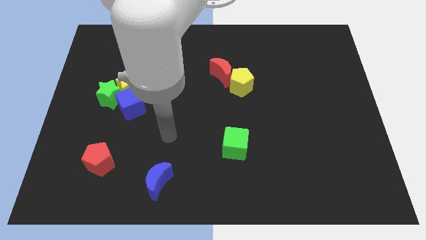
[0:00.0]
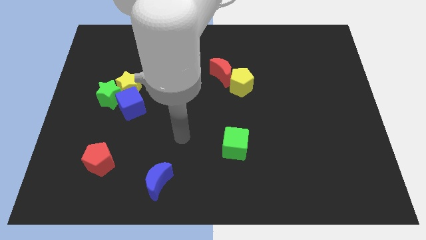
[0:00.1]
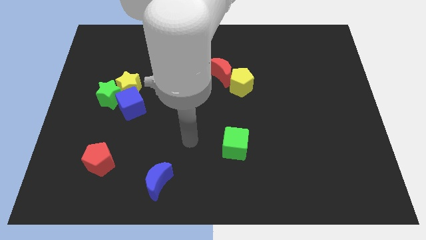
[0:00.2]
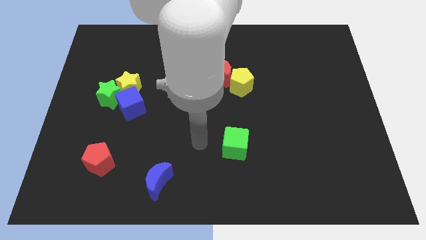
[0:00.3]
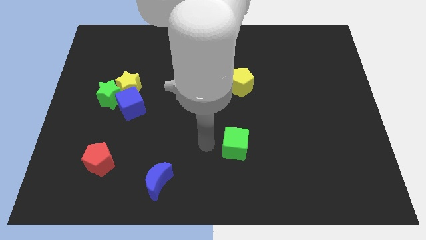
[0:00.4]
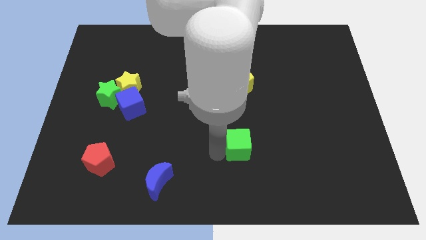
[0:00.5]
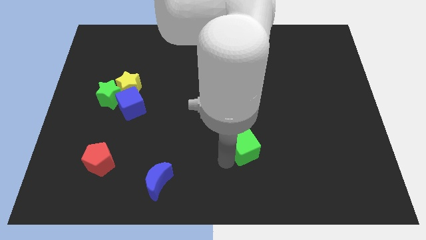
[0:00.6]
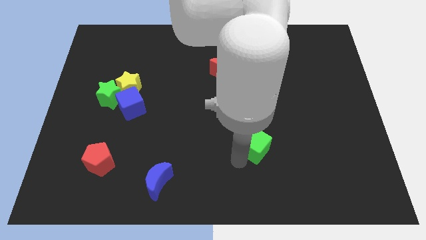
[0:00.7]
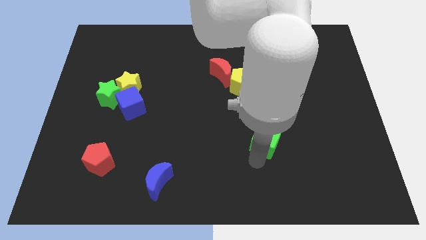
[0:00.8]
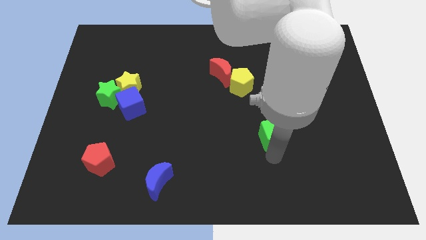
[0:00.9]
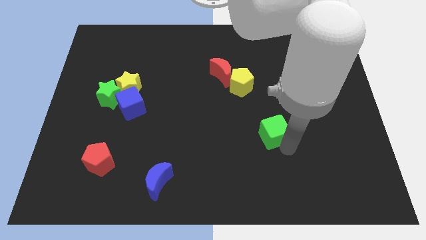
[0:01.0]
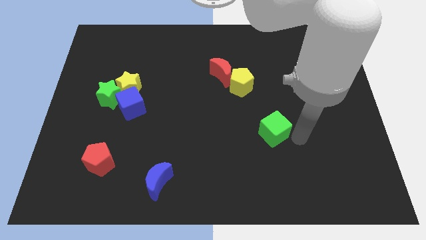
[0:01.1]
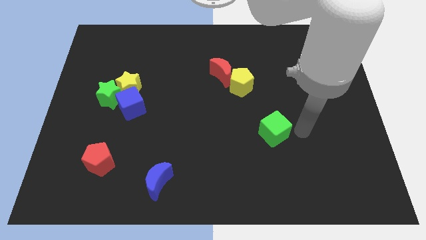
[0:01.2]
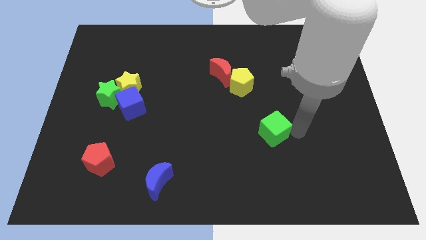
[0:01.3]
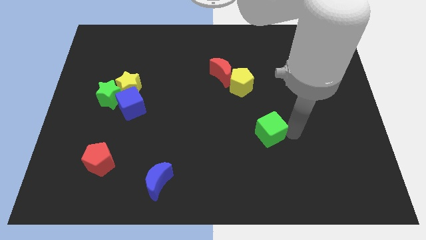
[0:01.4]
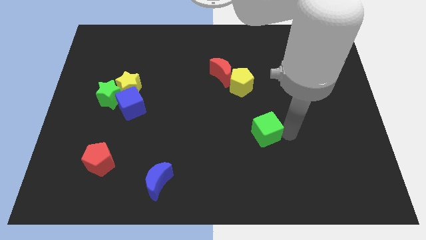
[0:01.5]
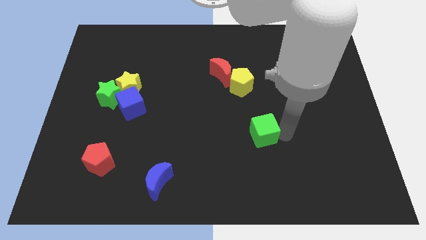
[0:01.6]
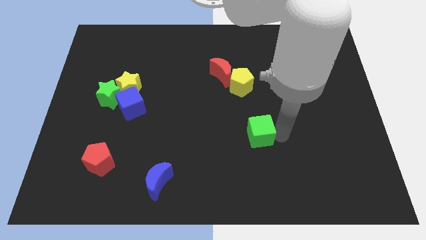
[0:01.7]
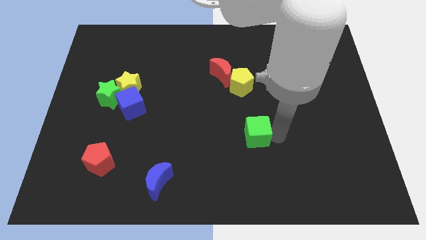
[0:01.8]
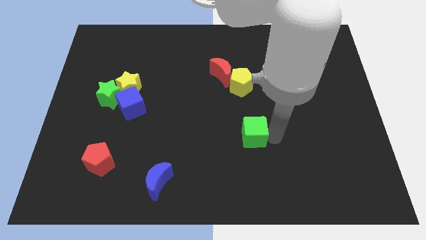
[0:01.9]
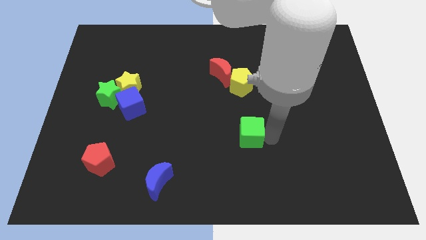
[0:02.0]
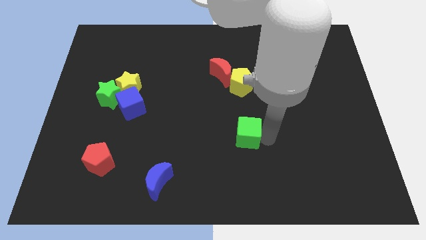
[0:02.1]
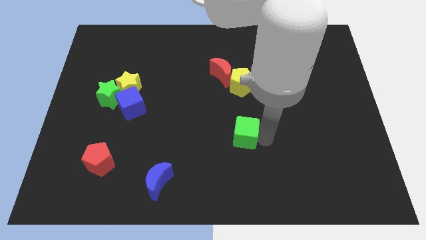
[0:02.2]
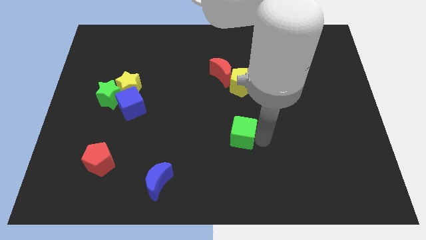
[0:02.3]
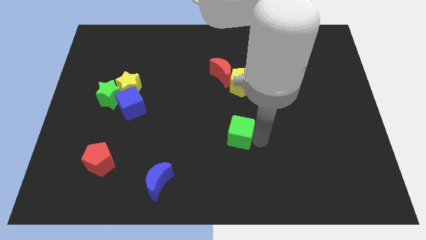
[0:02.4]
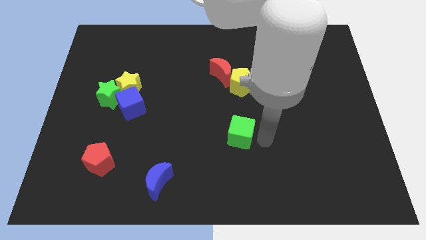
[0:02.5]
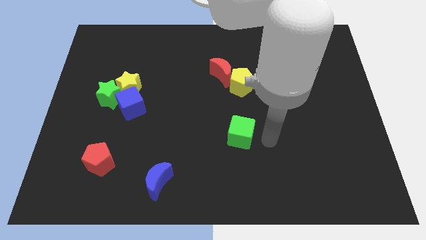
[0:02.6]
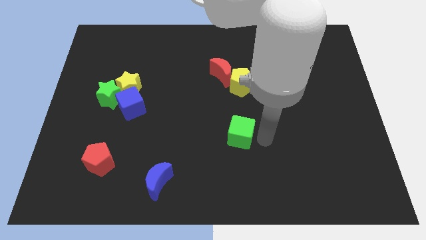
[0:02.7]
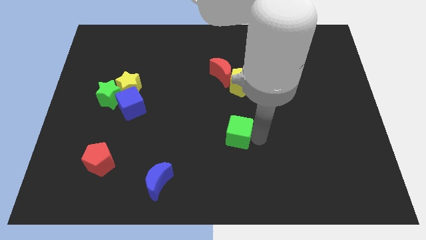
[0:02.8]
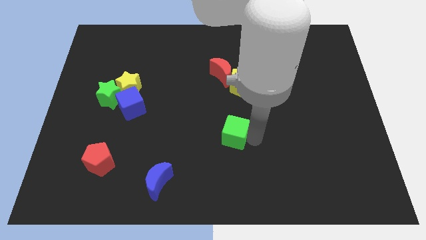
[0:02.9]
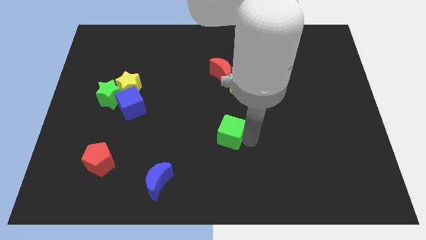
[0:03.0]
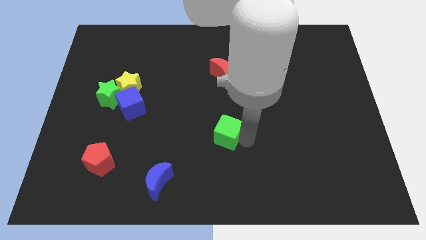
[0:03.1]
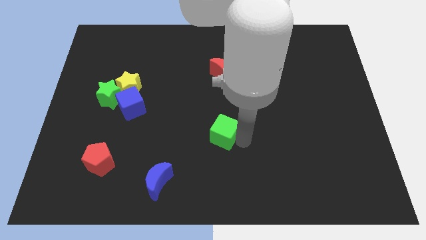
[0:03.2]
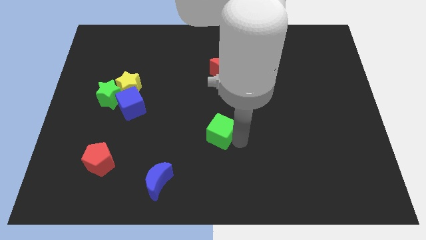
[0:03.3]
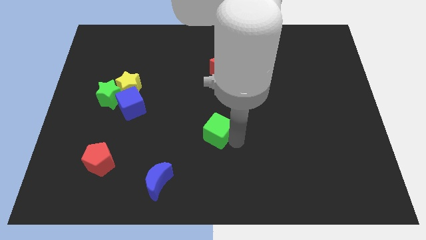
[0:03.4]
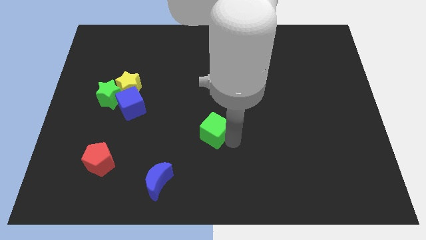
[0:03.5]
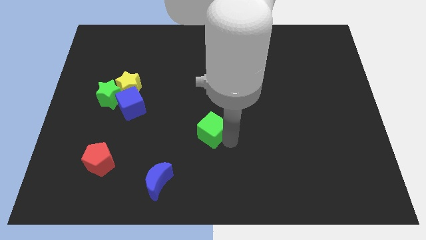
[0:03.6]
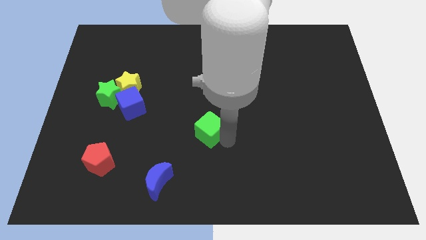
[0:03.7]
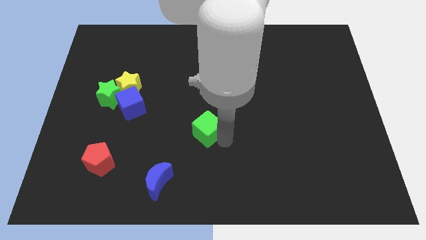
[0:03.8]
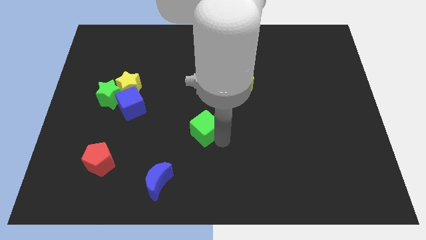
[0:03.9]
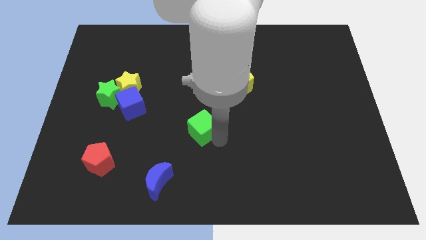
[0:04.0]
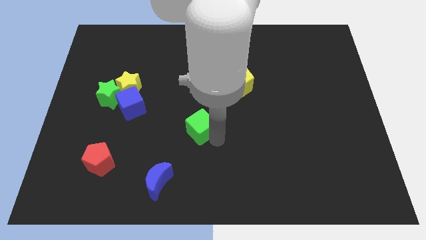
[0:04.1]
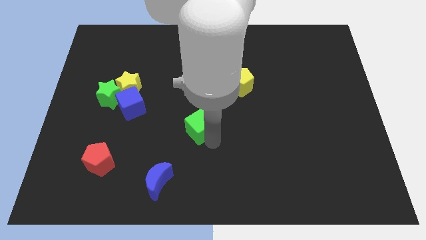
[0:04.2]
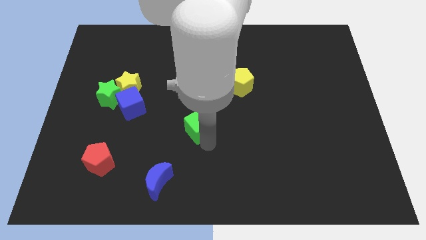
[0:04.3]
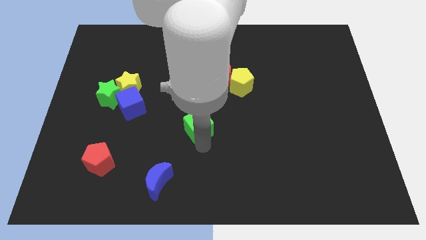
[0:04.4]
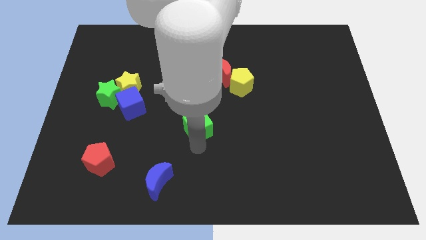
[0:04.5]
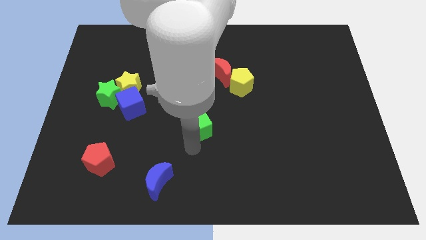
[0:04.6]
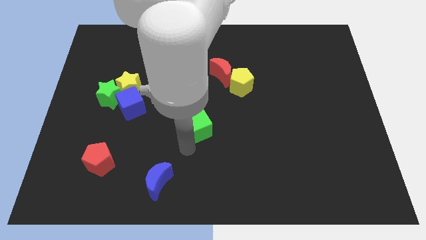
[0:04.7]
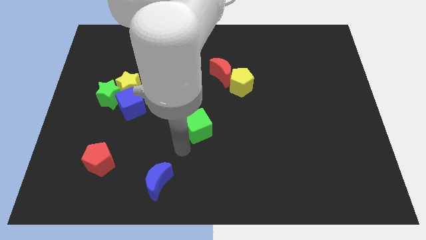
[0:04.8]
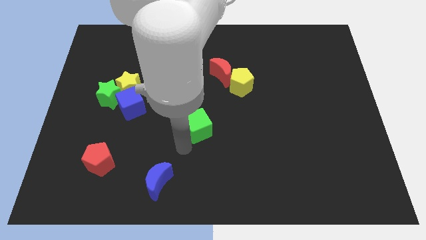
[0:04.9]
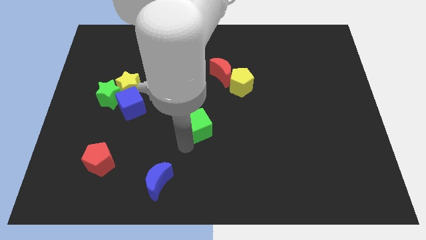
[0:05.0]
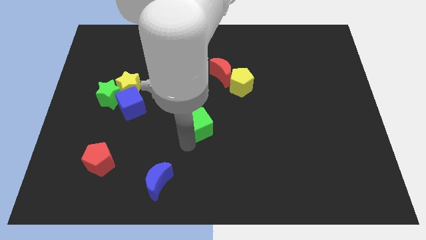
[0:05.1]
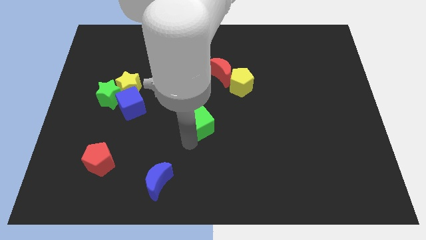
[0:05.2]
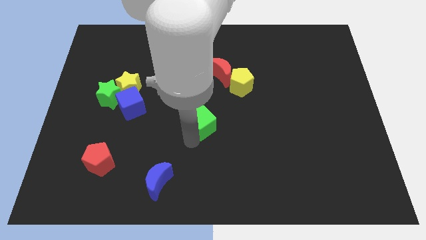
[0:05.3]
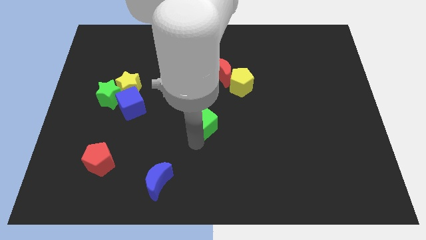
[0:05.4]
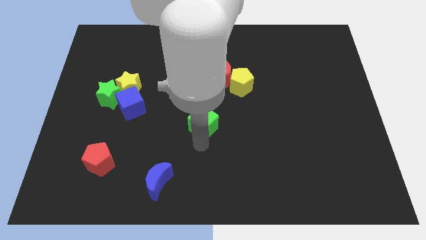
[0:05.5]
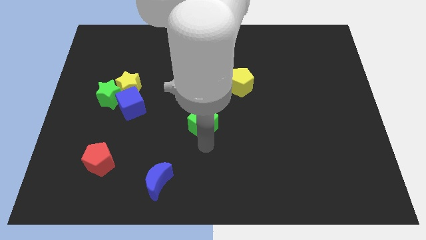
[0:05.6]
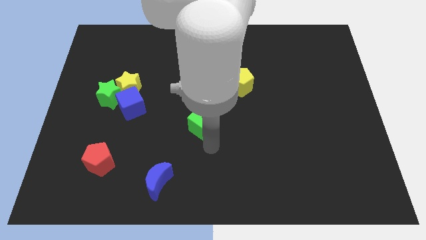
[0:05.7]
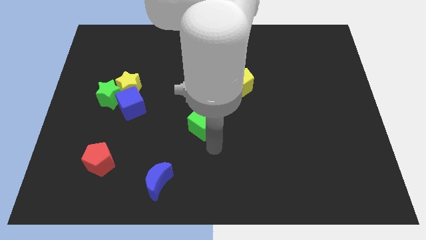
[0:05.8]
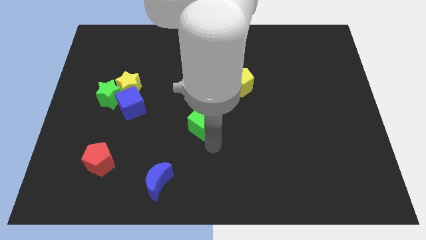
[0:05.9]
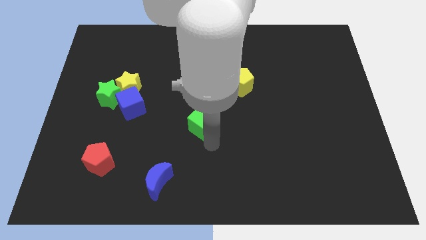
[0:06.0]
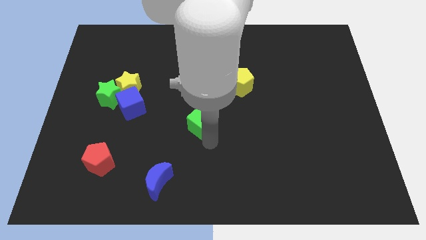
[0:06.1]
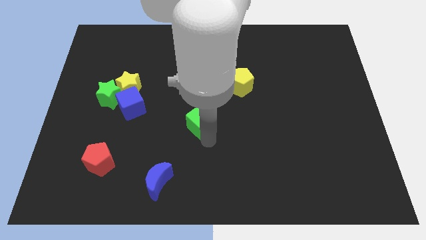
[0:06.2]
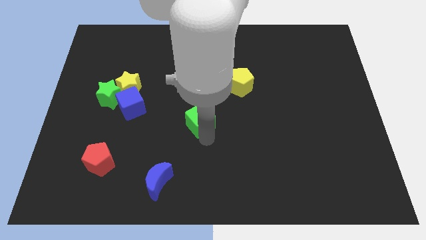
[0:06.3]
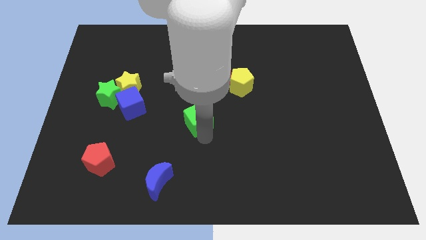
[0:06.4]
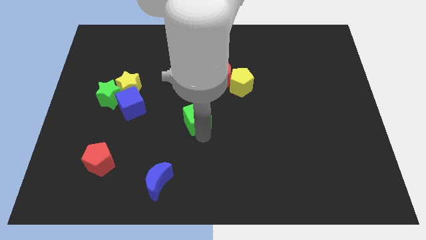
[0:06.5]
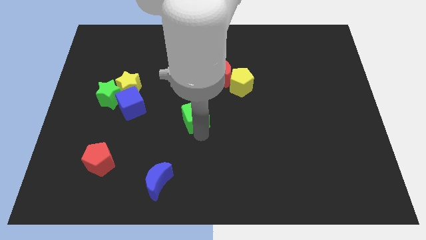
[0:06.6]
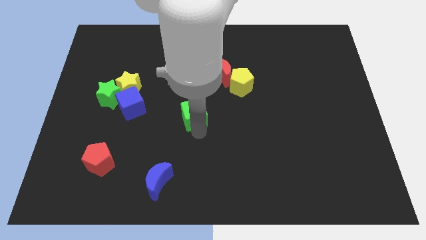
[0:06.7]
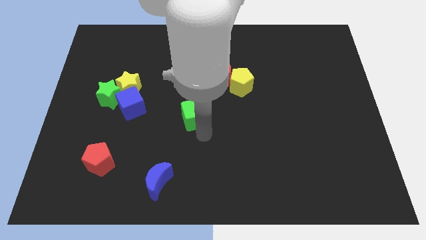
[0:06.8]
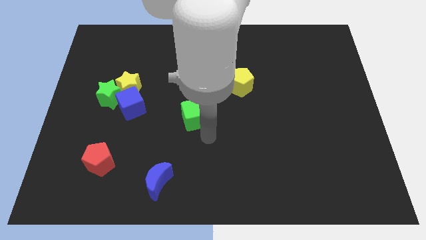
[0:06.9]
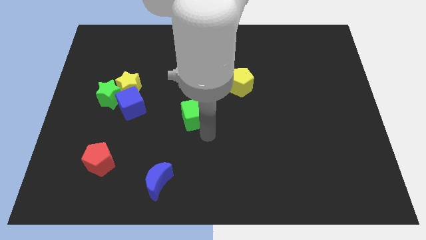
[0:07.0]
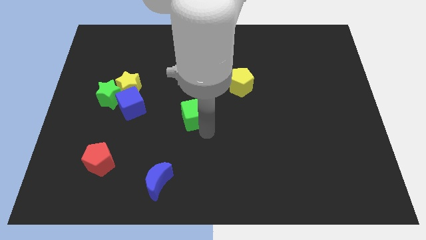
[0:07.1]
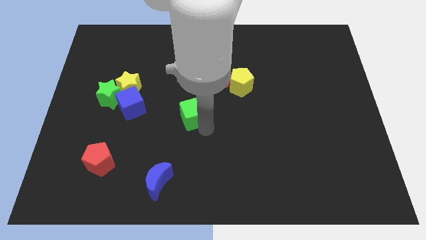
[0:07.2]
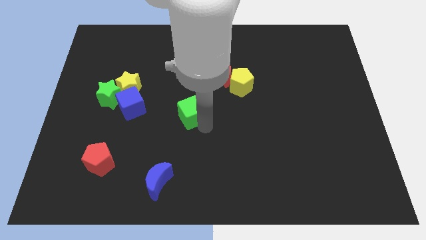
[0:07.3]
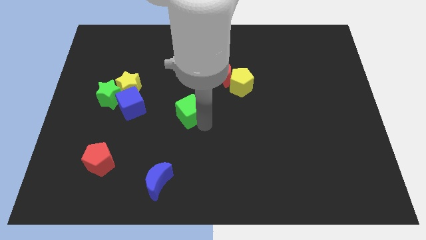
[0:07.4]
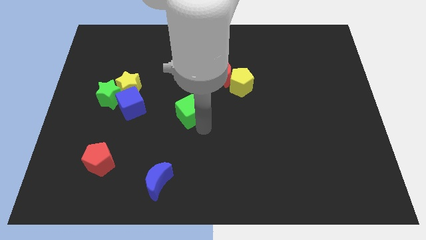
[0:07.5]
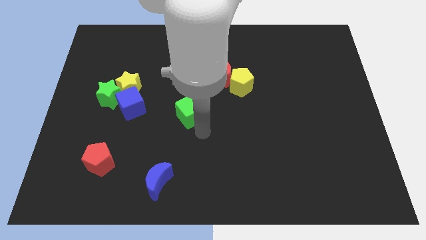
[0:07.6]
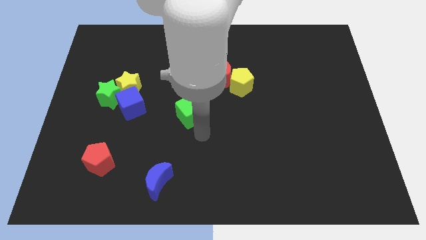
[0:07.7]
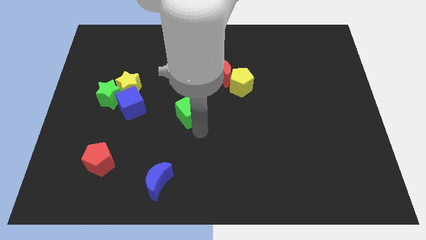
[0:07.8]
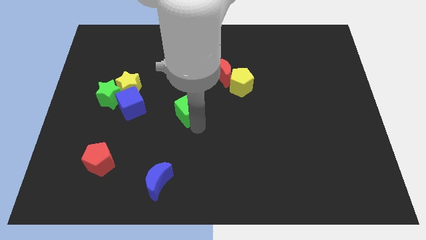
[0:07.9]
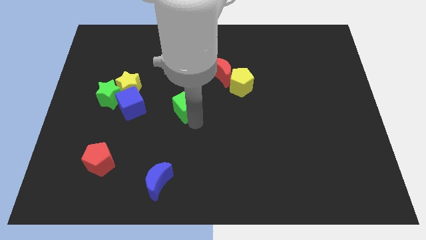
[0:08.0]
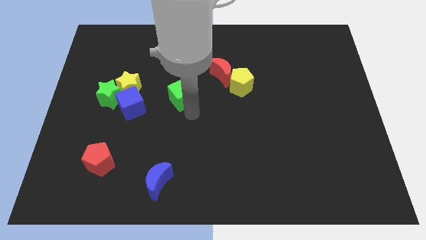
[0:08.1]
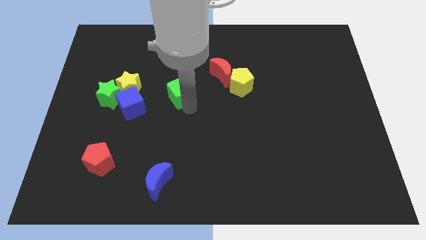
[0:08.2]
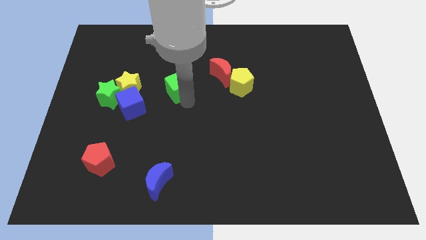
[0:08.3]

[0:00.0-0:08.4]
push the green cube upwards and left diagonally
